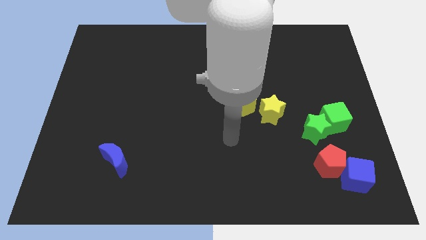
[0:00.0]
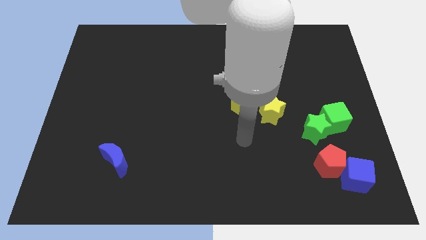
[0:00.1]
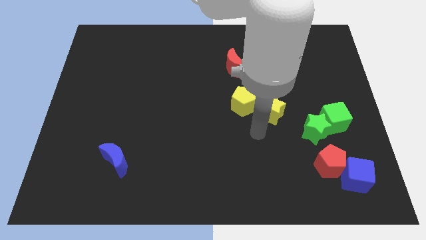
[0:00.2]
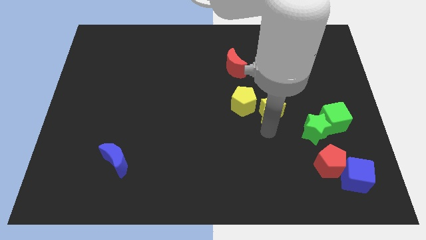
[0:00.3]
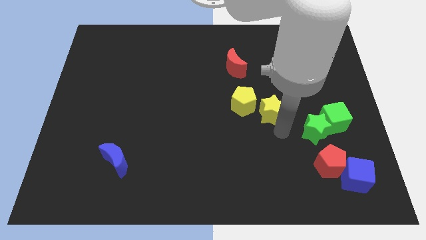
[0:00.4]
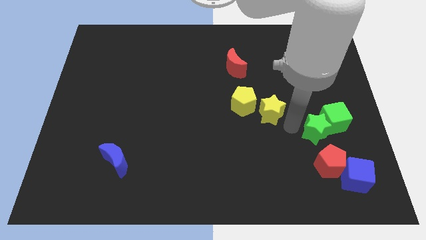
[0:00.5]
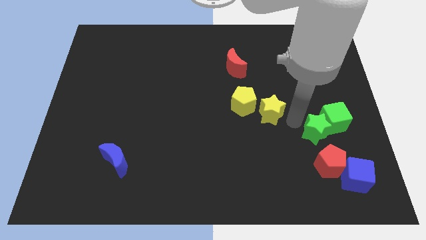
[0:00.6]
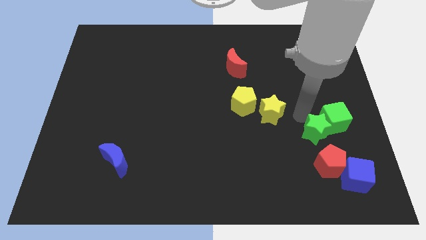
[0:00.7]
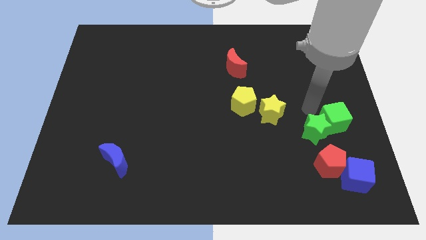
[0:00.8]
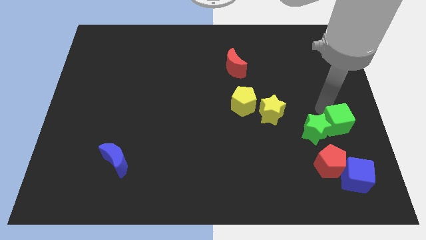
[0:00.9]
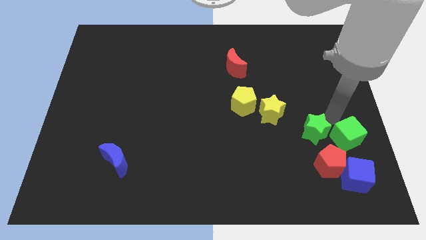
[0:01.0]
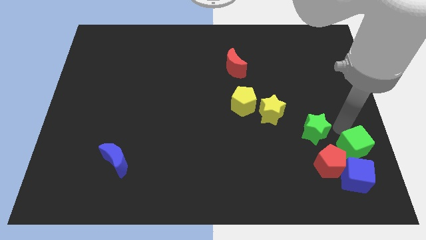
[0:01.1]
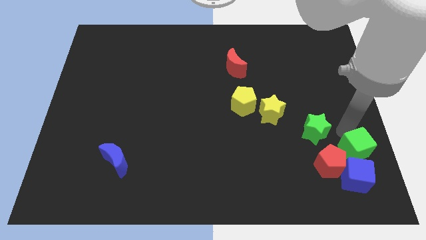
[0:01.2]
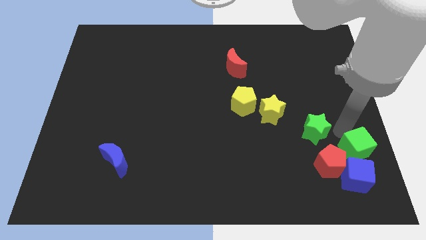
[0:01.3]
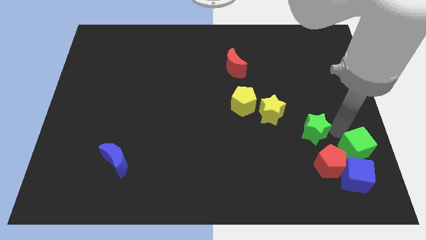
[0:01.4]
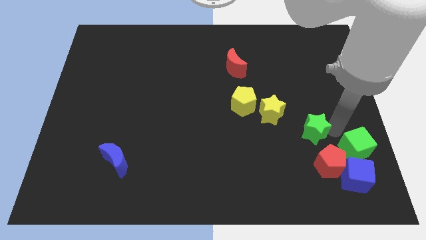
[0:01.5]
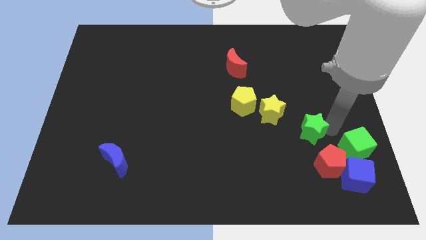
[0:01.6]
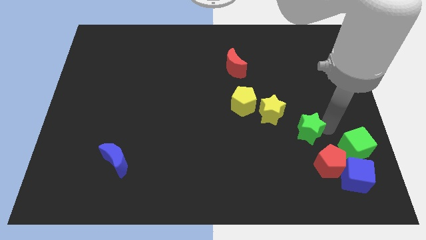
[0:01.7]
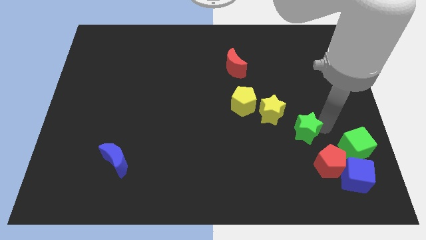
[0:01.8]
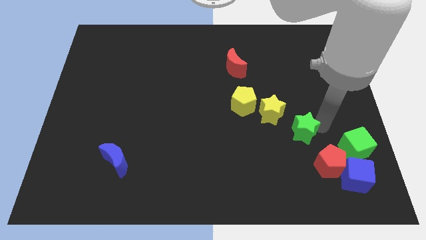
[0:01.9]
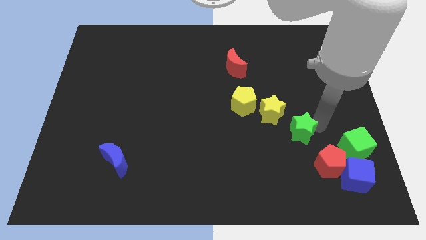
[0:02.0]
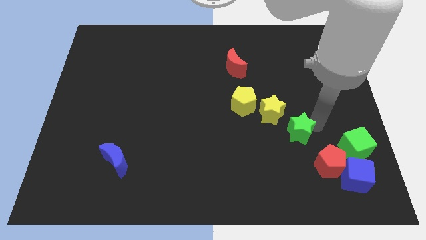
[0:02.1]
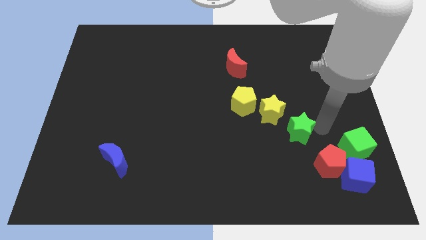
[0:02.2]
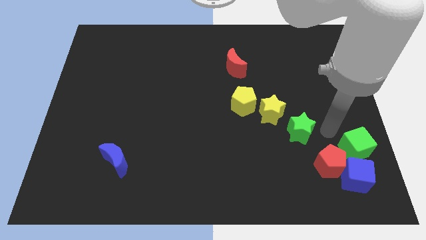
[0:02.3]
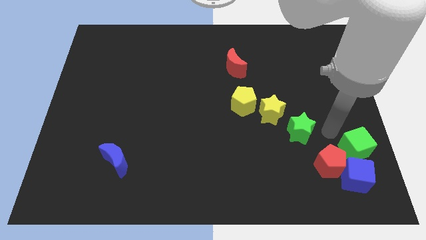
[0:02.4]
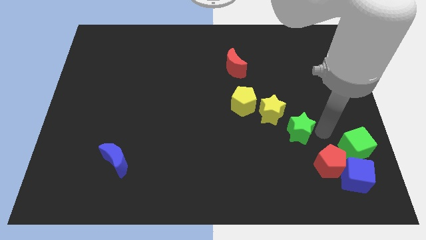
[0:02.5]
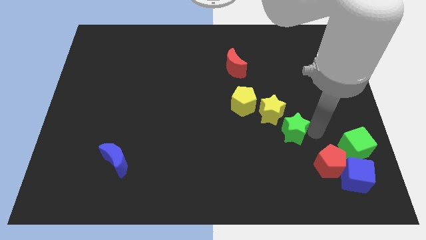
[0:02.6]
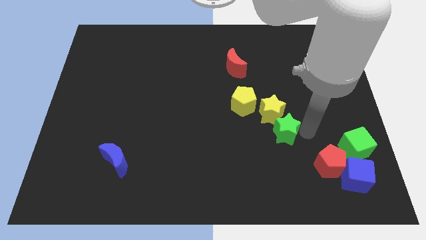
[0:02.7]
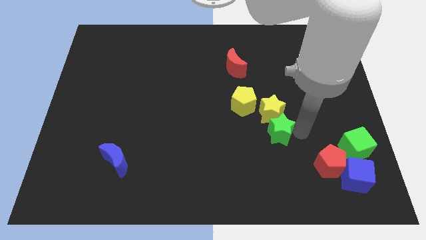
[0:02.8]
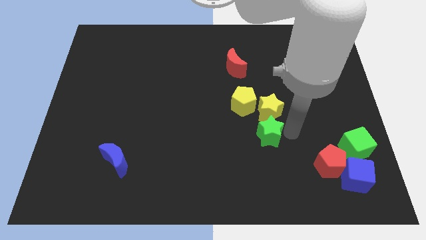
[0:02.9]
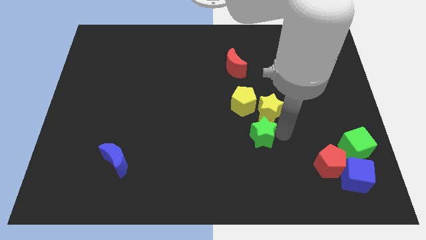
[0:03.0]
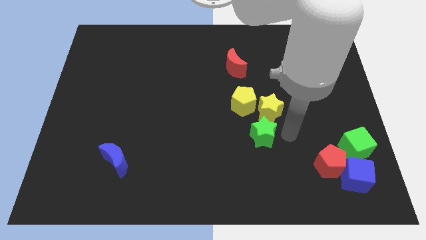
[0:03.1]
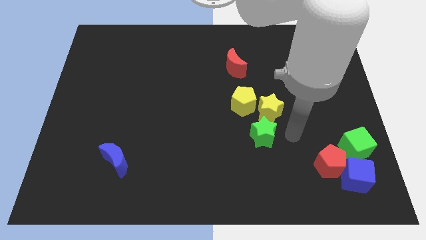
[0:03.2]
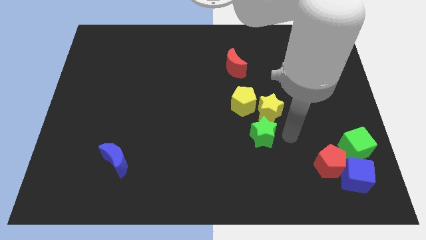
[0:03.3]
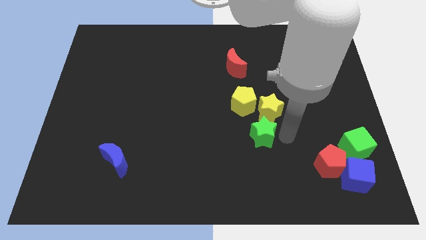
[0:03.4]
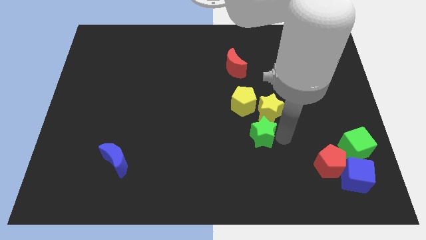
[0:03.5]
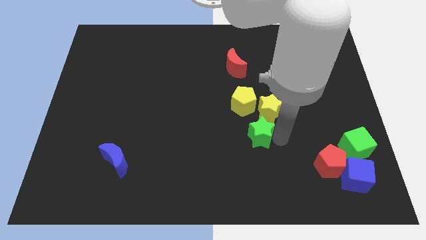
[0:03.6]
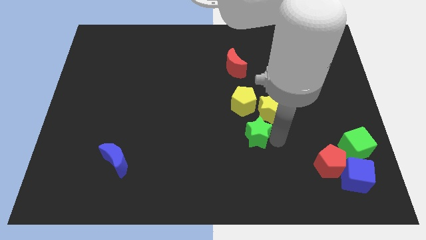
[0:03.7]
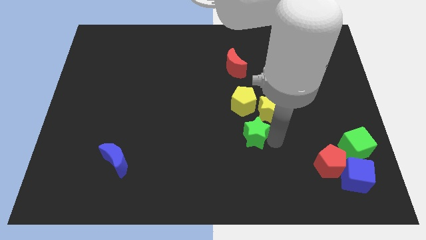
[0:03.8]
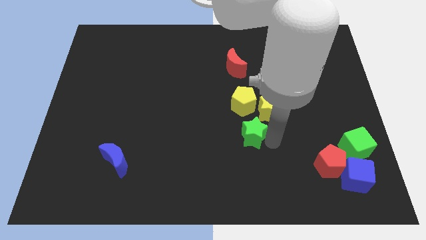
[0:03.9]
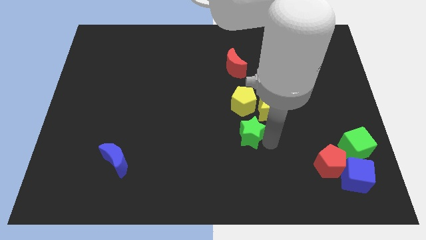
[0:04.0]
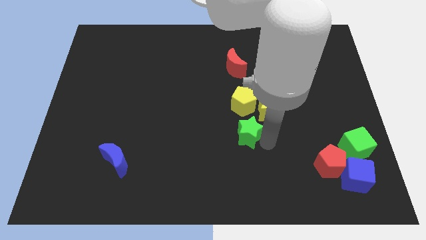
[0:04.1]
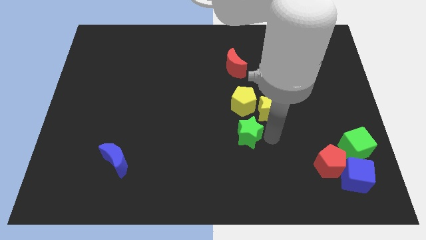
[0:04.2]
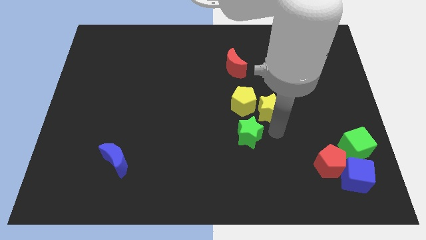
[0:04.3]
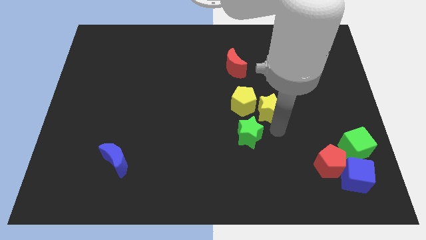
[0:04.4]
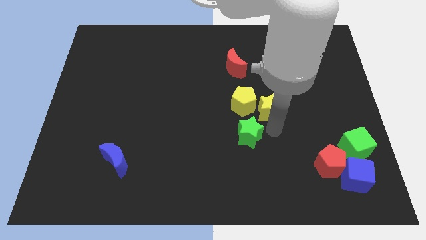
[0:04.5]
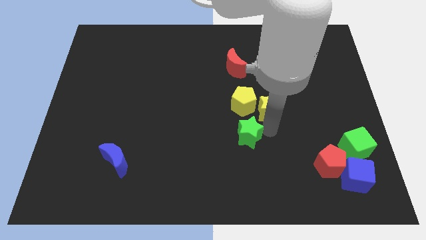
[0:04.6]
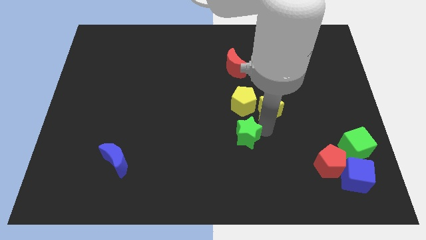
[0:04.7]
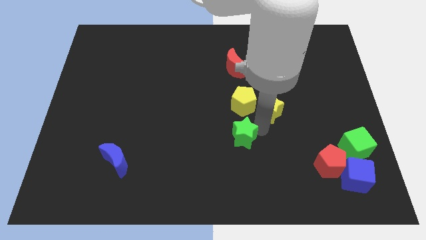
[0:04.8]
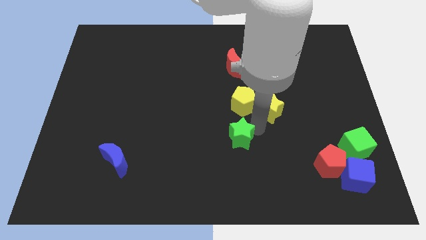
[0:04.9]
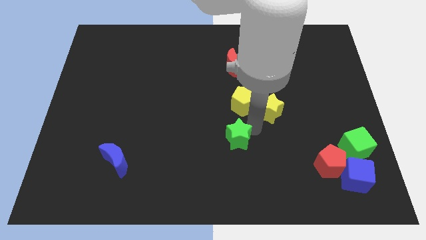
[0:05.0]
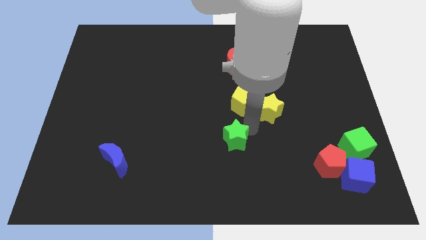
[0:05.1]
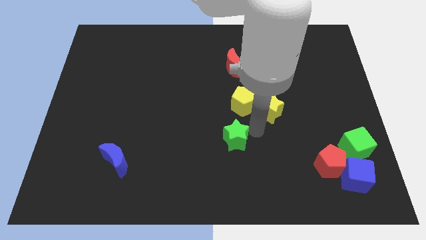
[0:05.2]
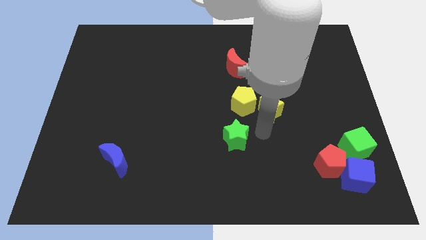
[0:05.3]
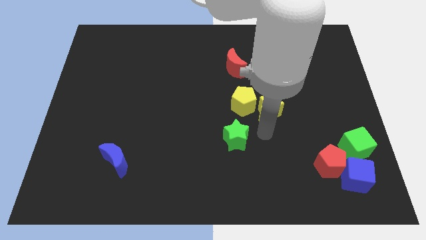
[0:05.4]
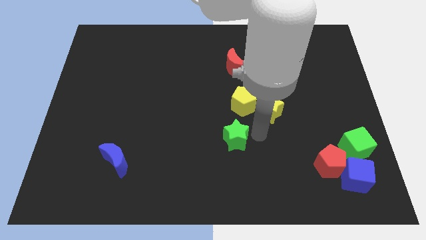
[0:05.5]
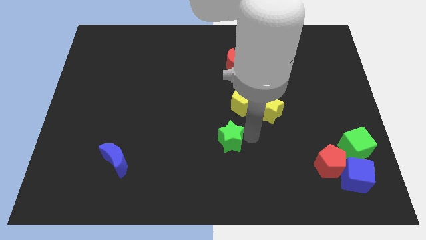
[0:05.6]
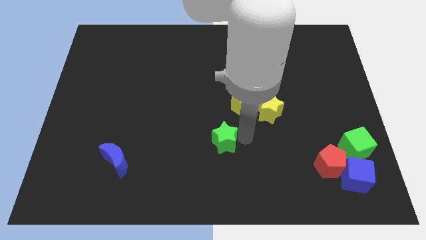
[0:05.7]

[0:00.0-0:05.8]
push the green star to the left

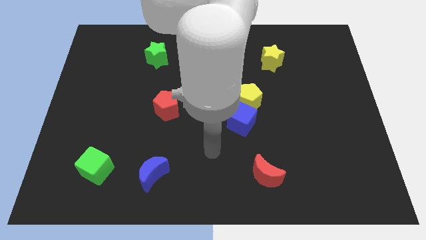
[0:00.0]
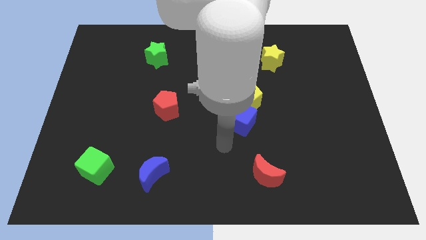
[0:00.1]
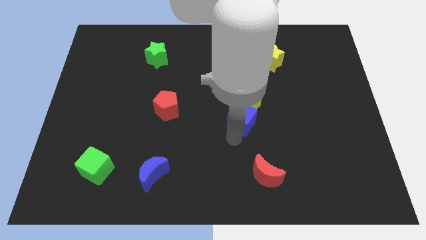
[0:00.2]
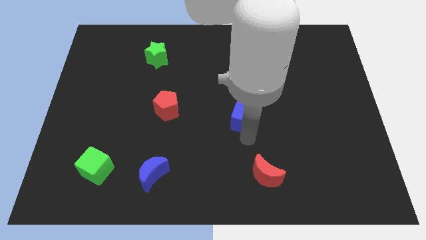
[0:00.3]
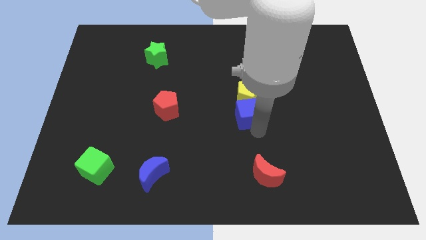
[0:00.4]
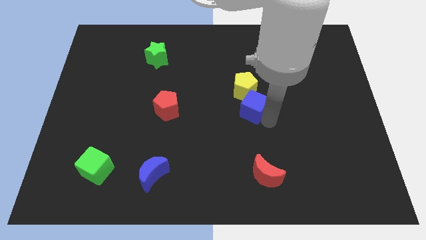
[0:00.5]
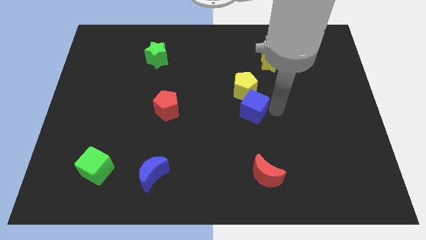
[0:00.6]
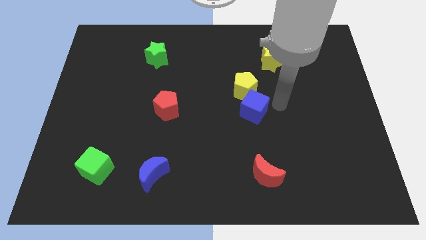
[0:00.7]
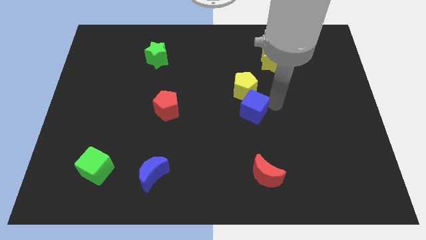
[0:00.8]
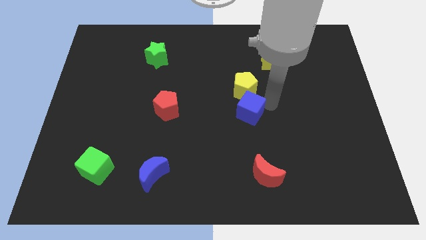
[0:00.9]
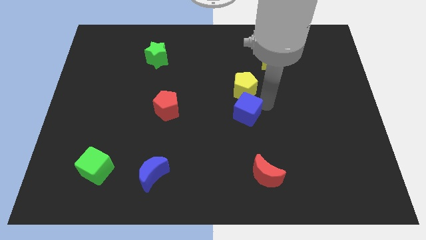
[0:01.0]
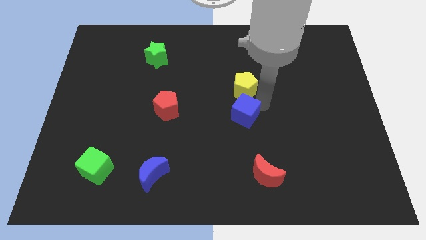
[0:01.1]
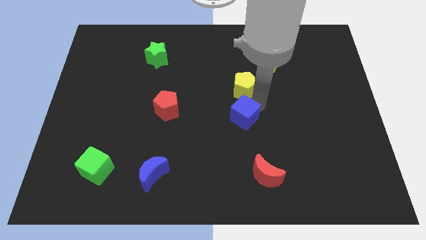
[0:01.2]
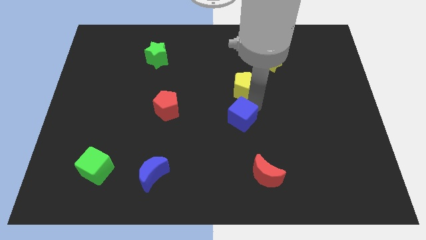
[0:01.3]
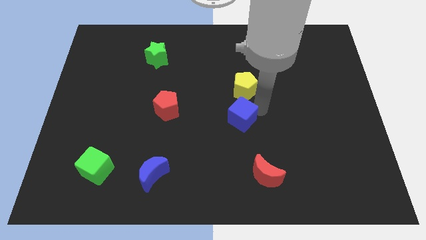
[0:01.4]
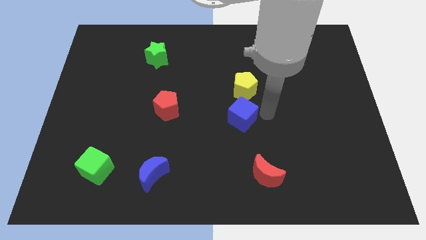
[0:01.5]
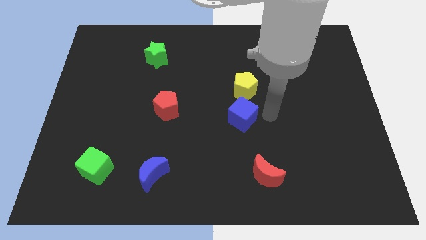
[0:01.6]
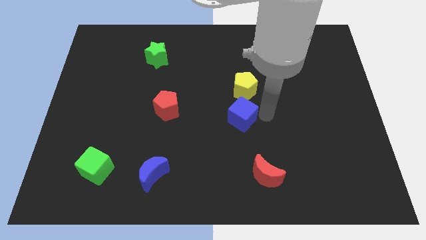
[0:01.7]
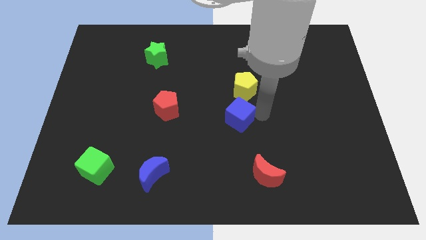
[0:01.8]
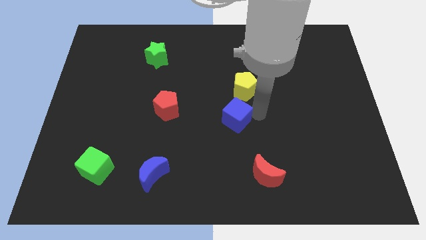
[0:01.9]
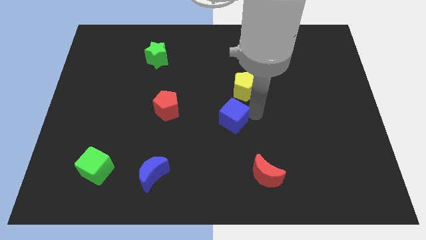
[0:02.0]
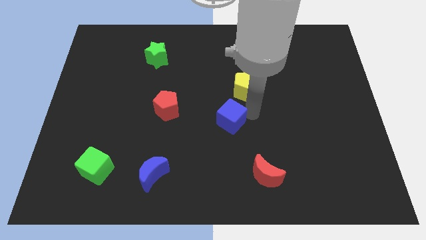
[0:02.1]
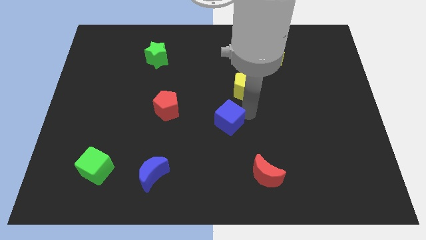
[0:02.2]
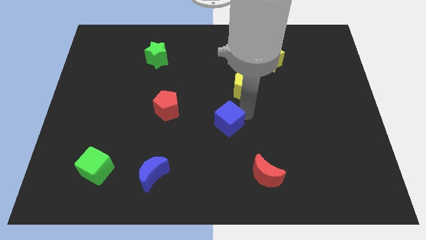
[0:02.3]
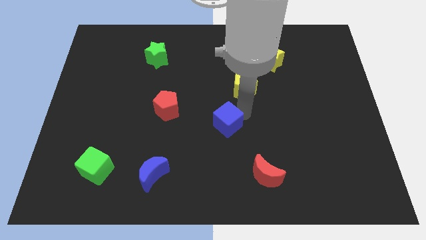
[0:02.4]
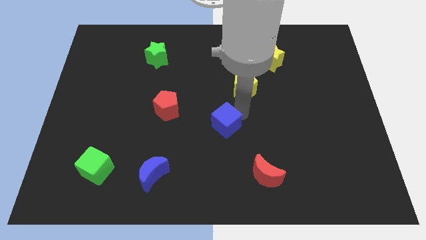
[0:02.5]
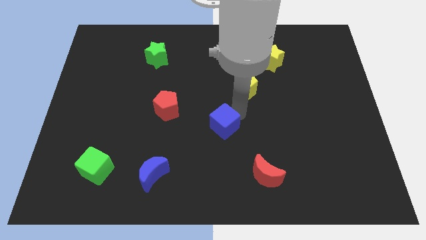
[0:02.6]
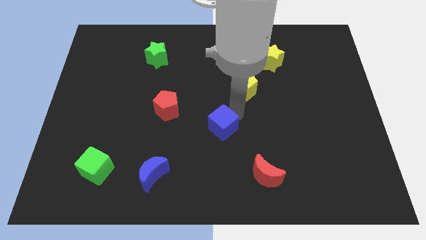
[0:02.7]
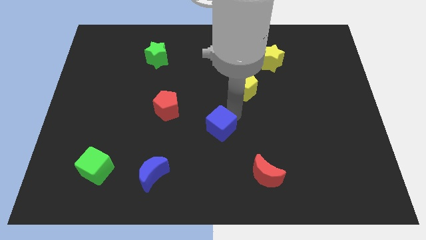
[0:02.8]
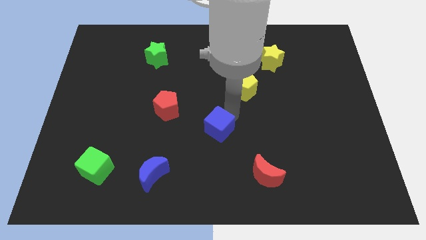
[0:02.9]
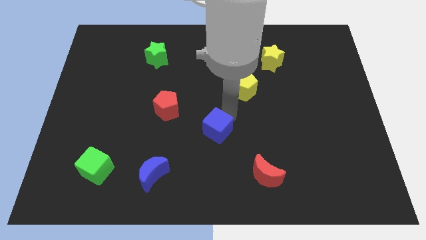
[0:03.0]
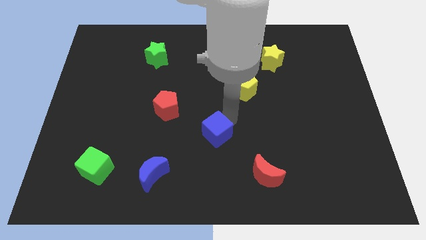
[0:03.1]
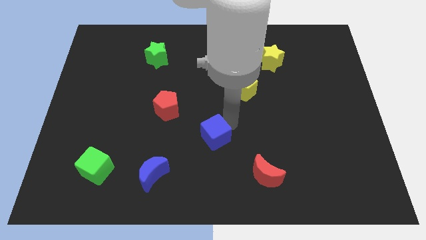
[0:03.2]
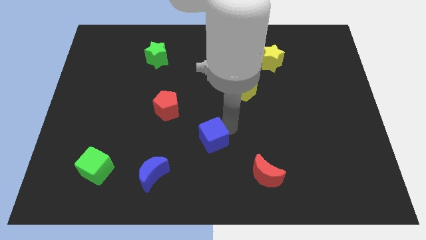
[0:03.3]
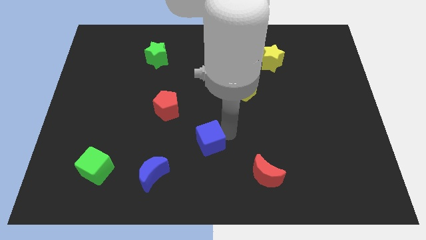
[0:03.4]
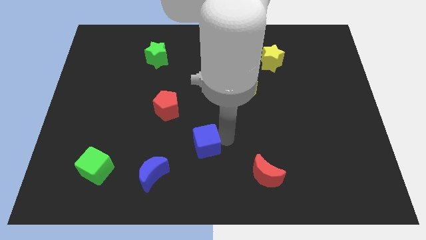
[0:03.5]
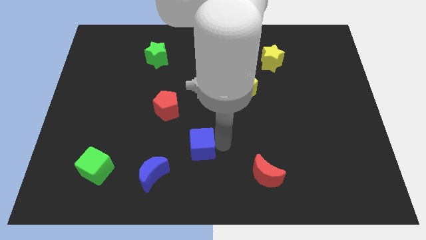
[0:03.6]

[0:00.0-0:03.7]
push the blue cube left a little bit
